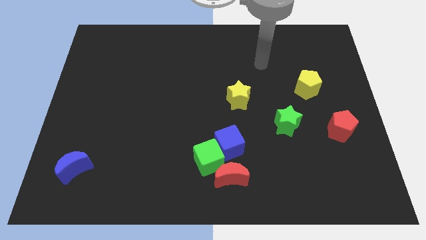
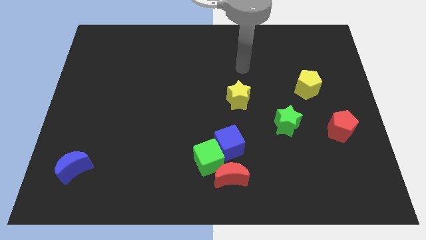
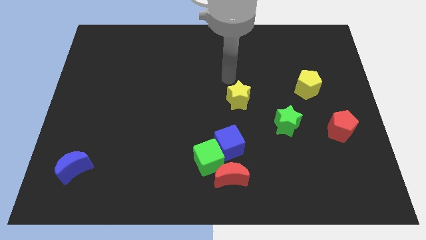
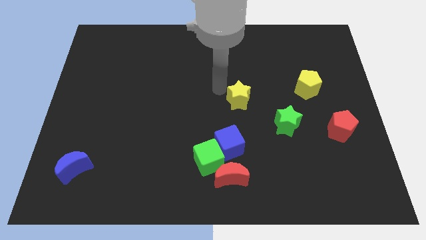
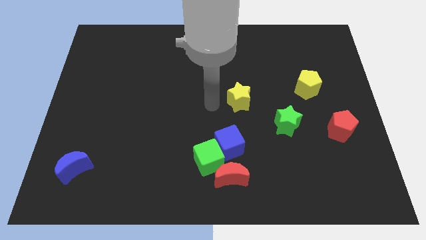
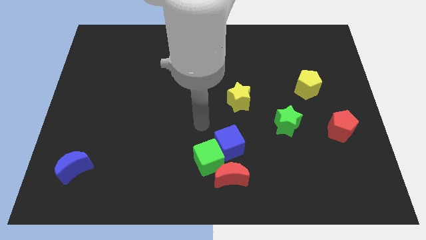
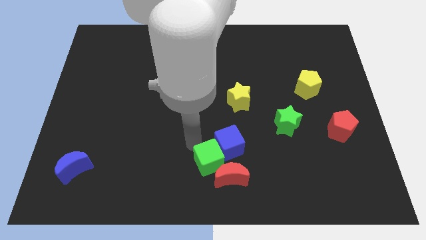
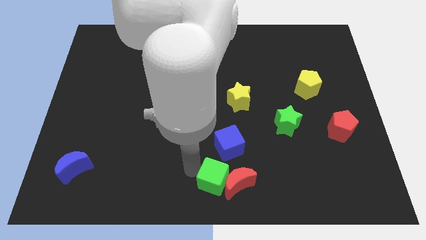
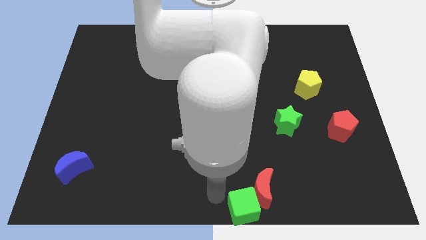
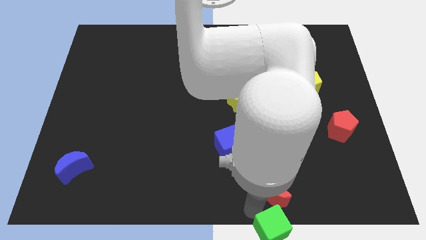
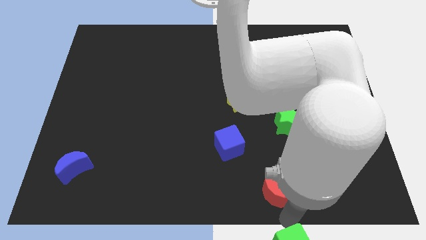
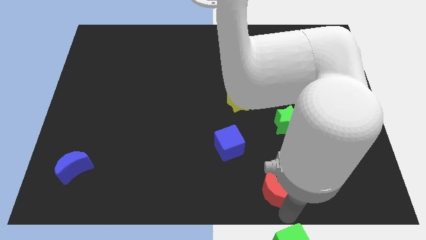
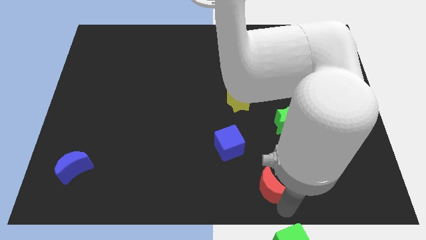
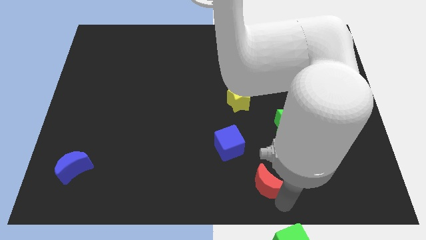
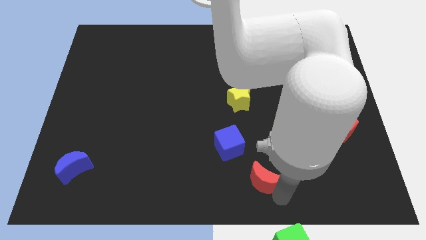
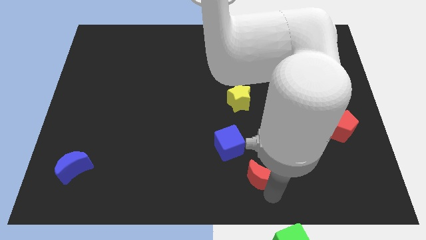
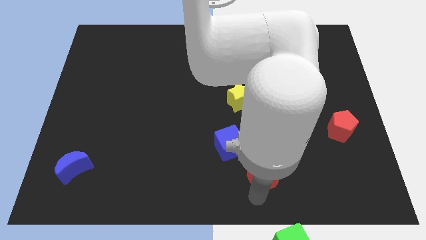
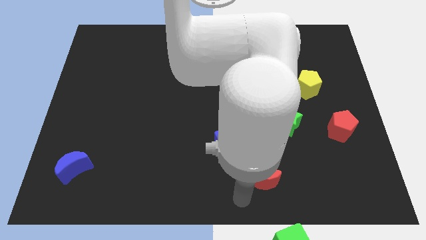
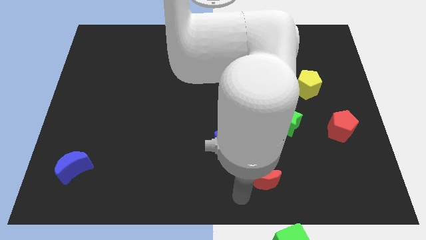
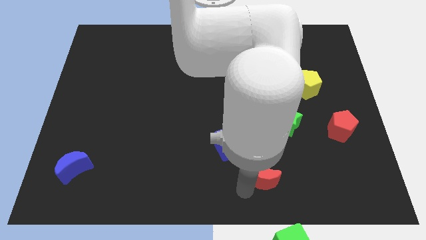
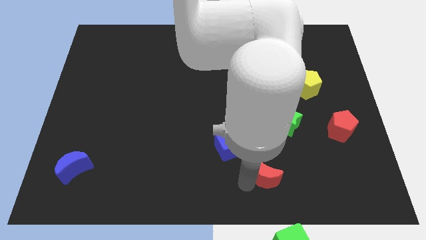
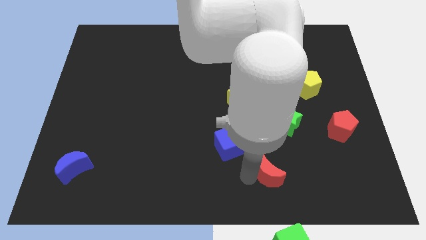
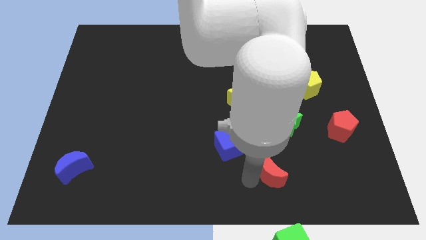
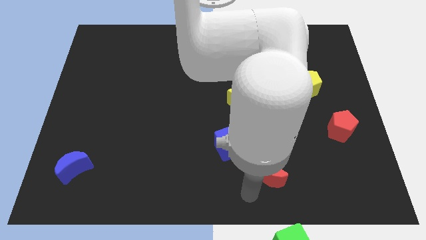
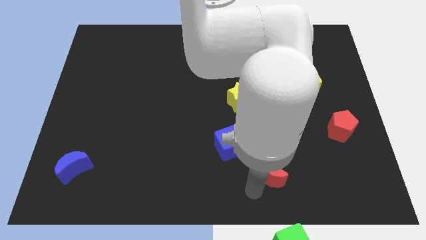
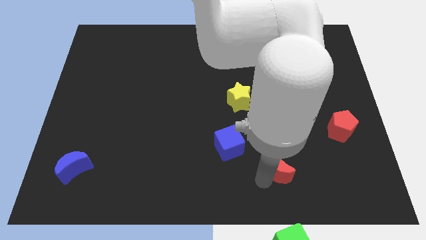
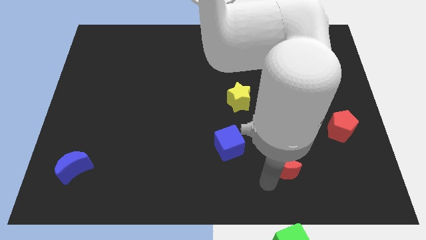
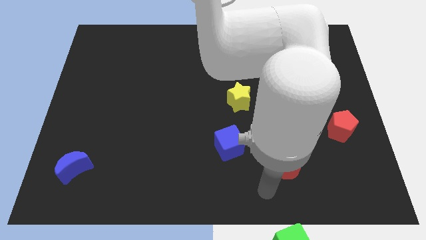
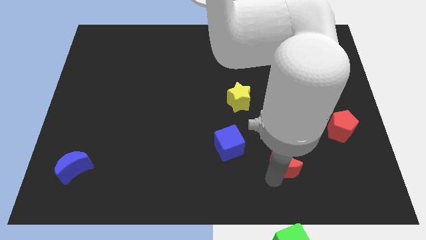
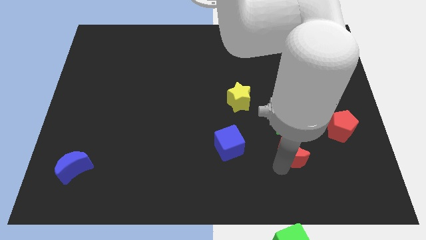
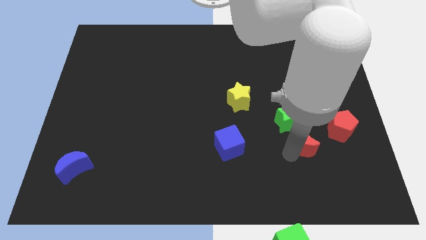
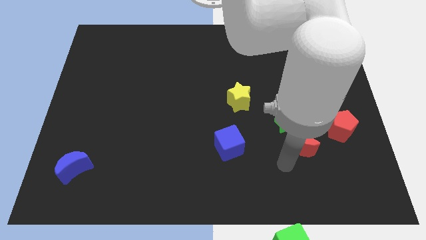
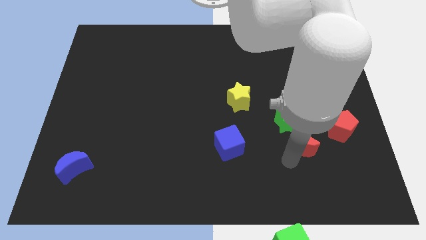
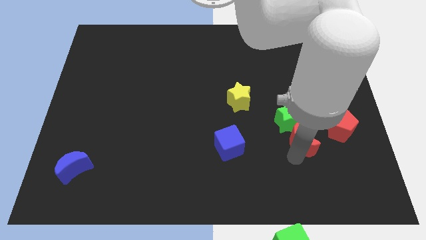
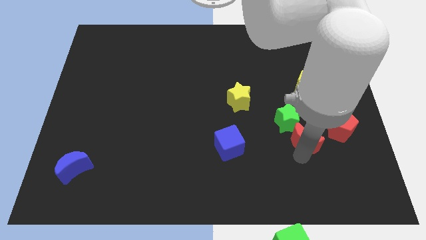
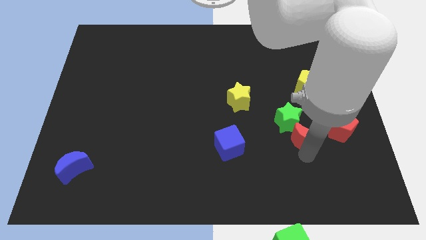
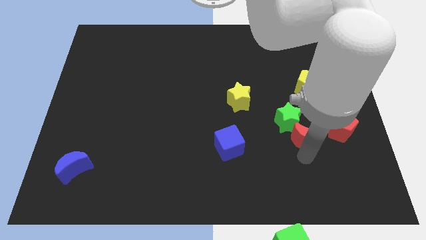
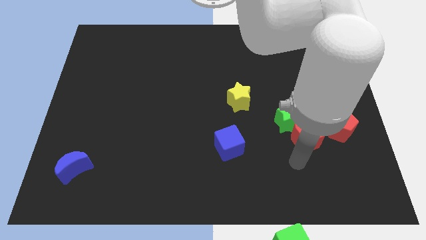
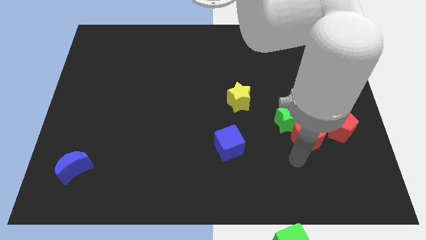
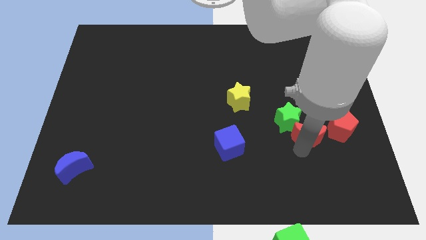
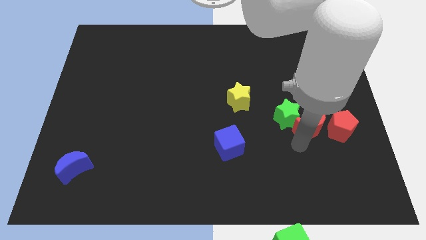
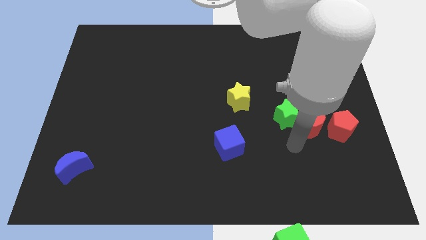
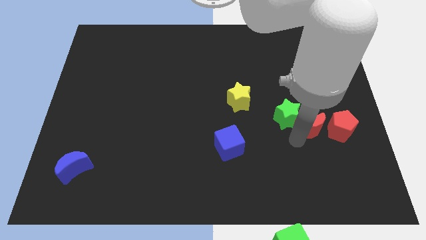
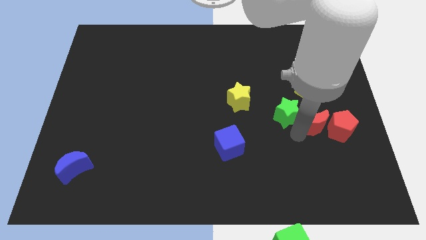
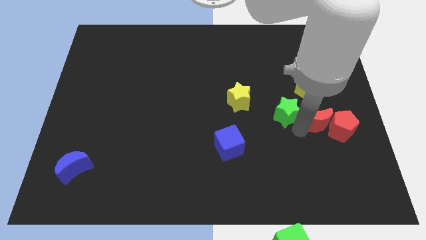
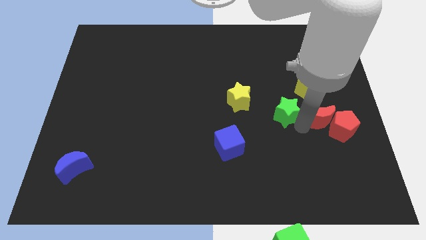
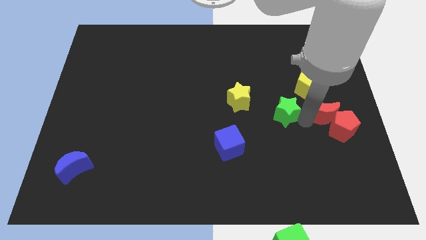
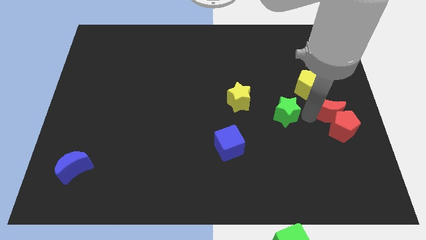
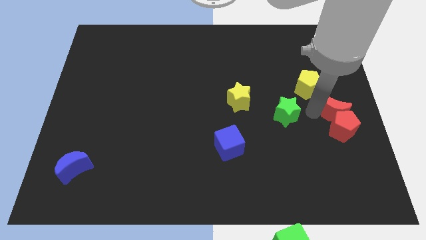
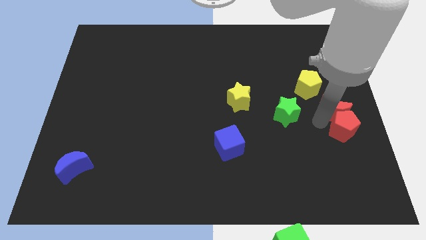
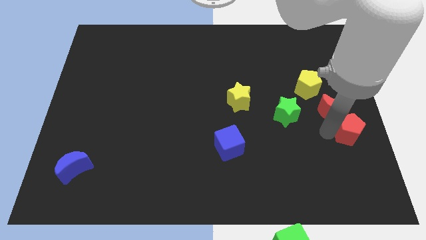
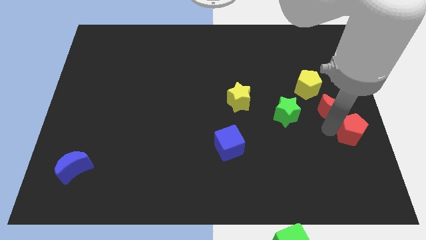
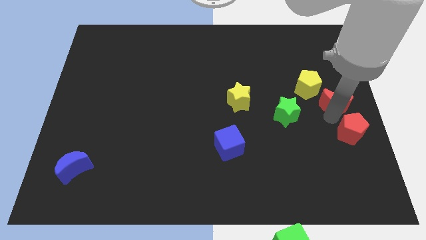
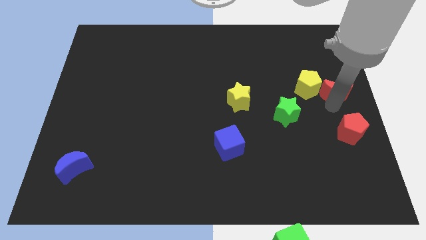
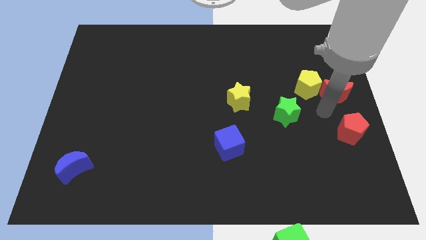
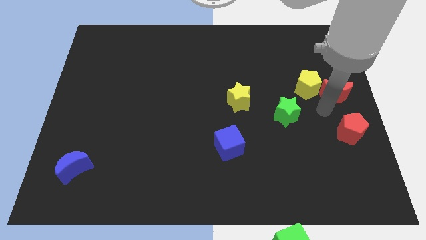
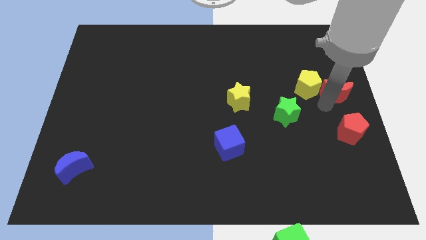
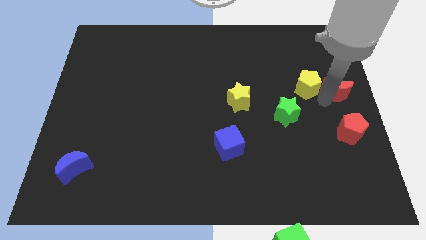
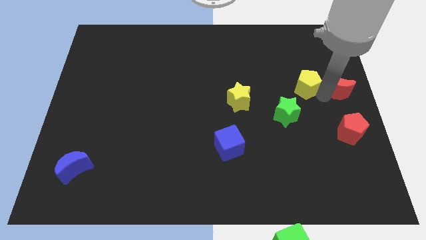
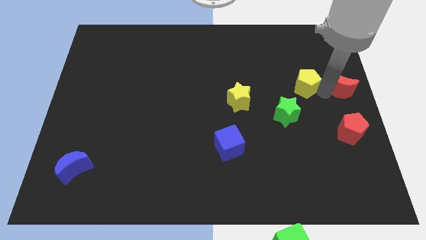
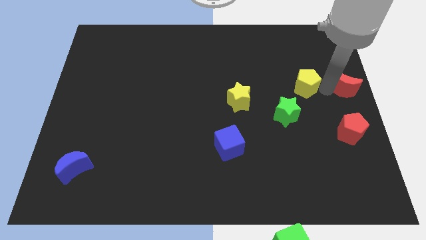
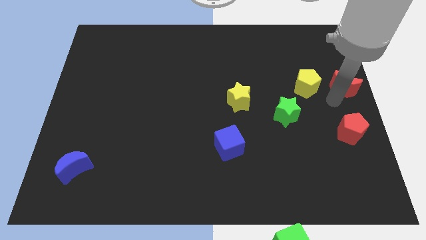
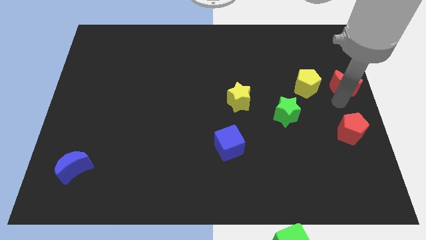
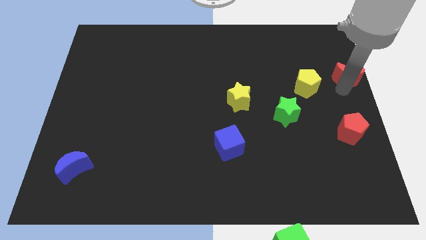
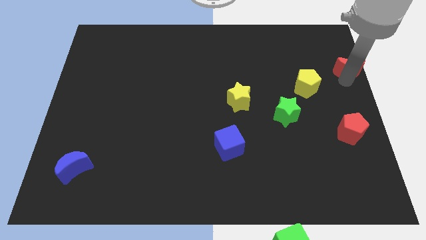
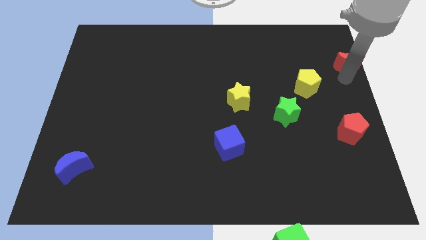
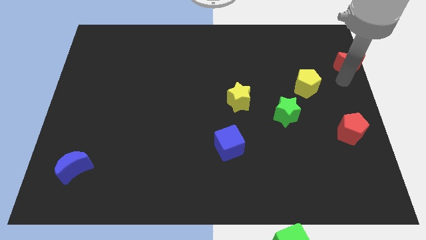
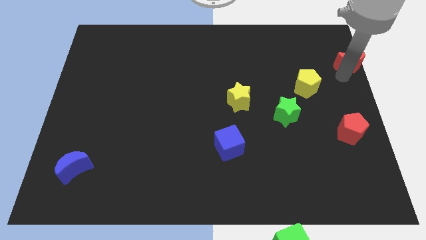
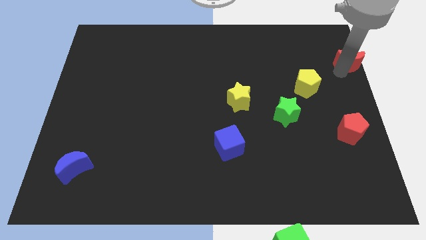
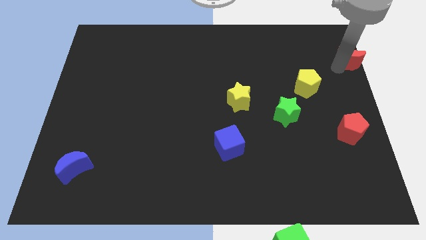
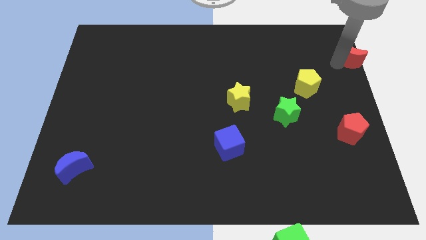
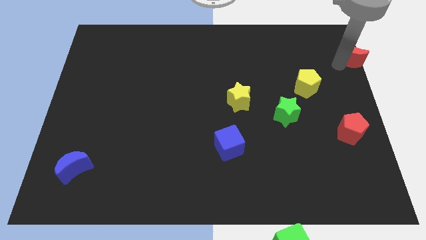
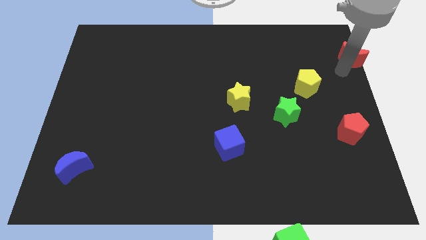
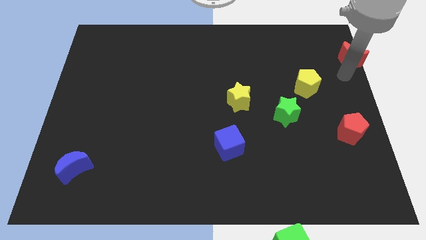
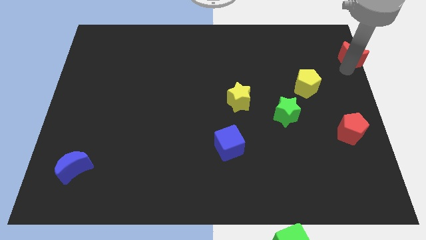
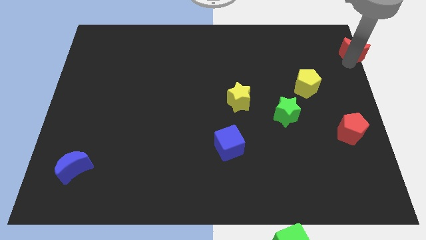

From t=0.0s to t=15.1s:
slide the red moon to the top right
